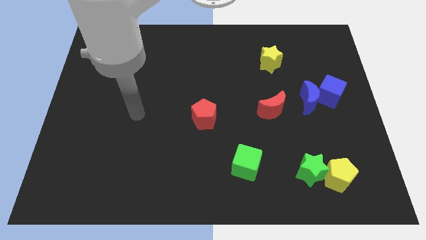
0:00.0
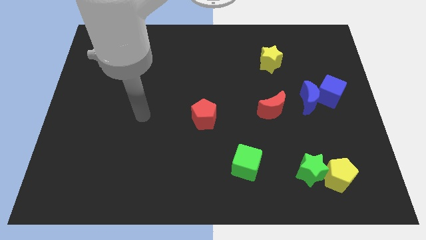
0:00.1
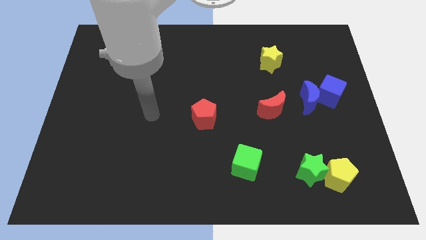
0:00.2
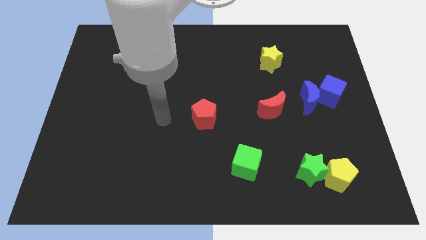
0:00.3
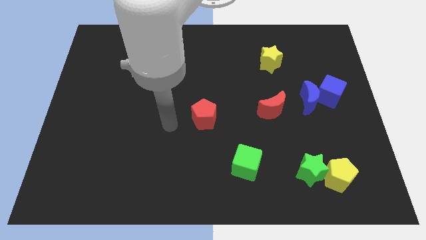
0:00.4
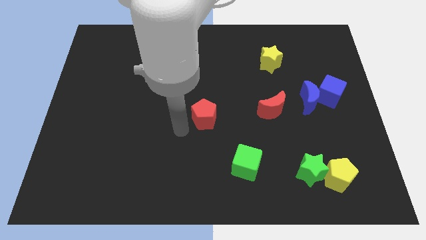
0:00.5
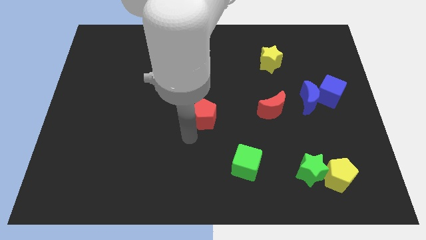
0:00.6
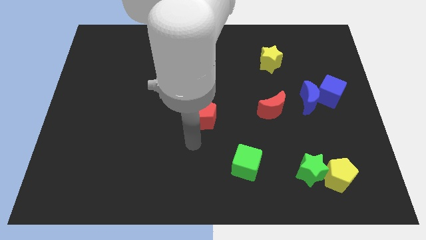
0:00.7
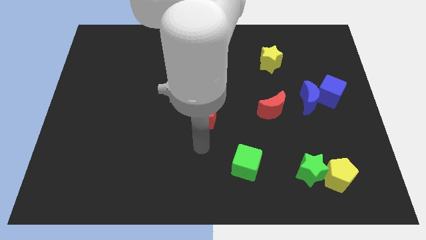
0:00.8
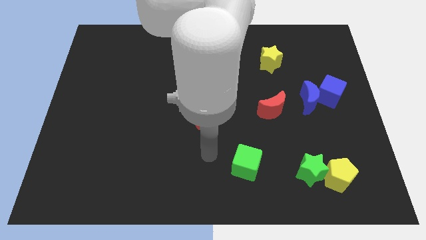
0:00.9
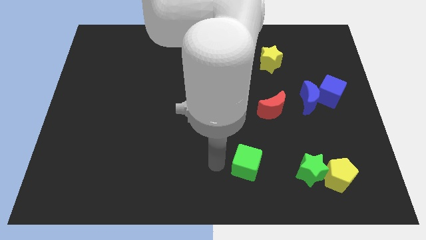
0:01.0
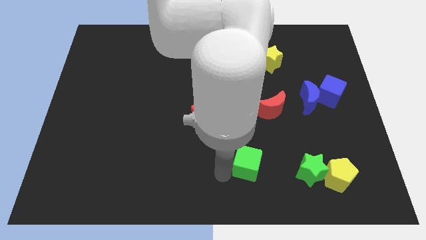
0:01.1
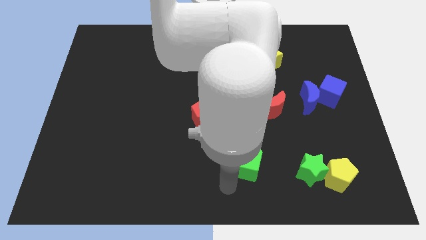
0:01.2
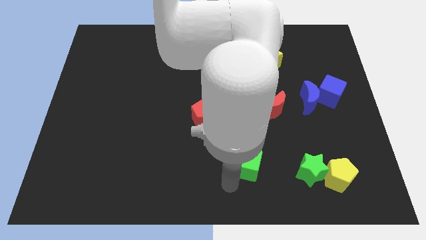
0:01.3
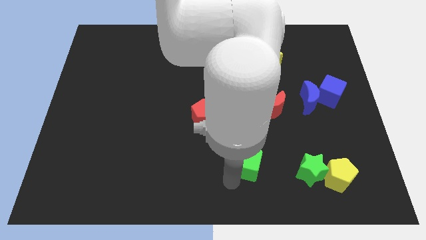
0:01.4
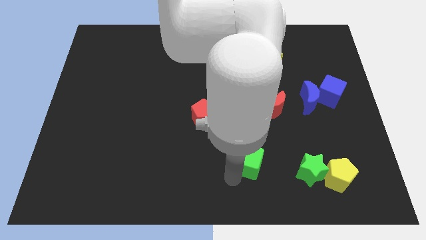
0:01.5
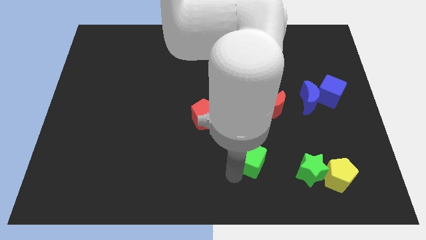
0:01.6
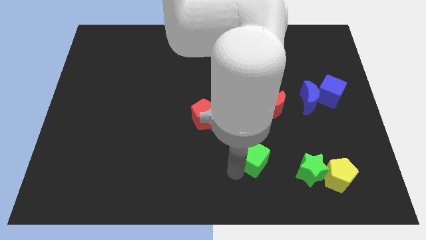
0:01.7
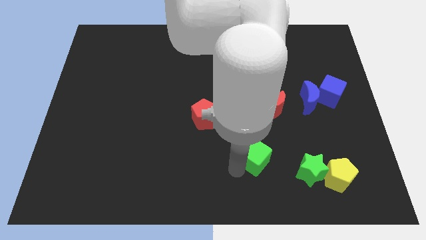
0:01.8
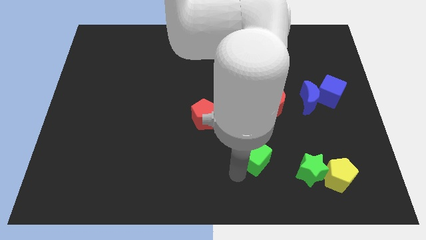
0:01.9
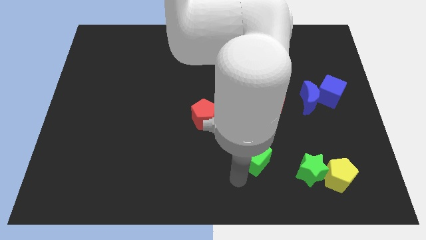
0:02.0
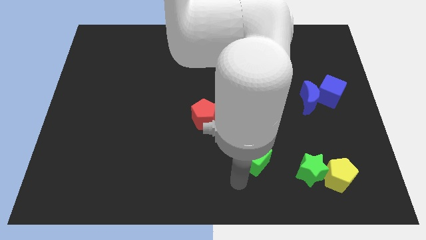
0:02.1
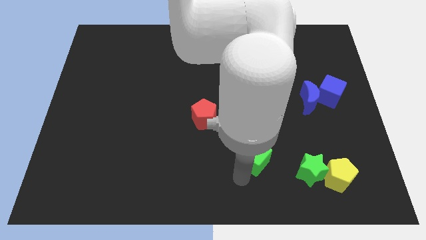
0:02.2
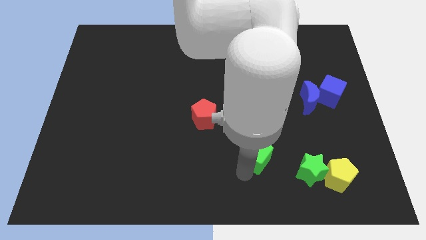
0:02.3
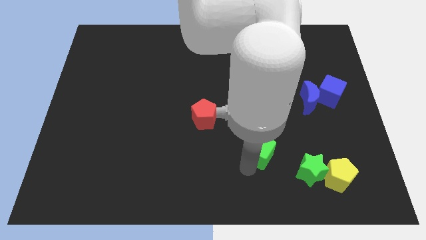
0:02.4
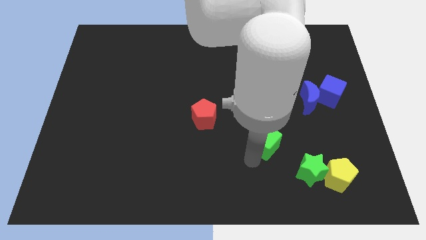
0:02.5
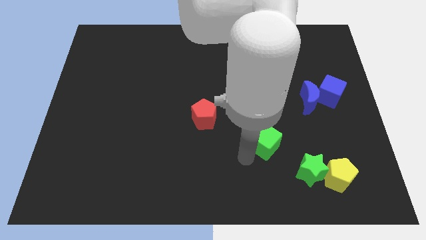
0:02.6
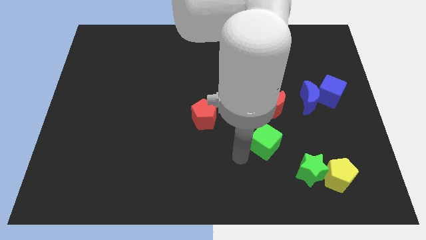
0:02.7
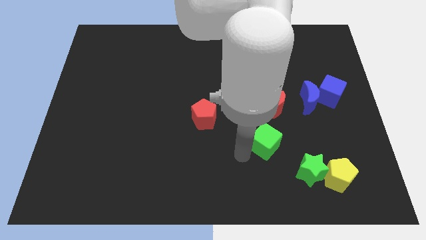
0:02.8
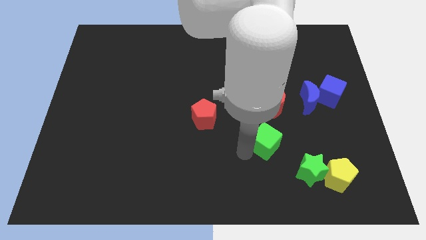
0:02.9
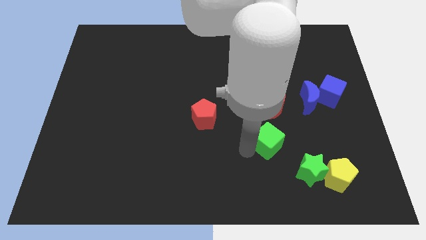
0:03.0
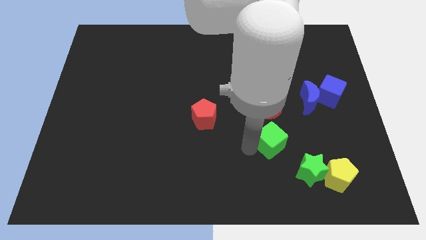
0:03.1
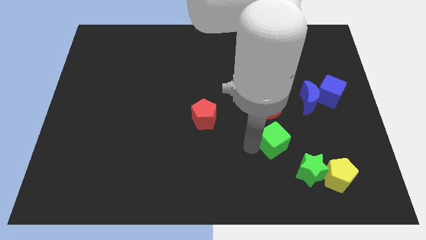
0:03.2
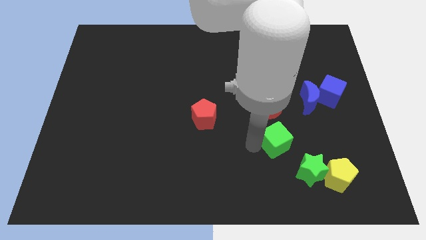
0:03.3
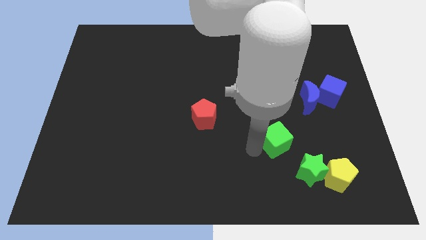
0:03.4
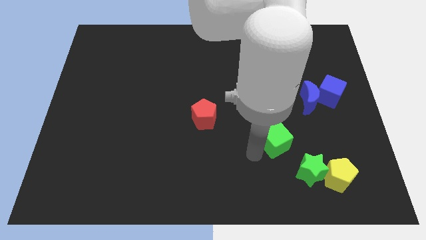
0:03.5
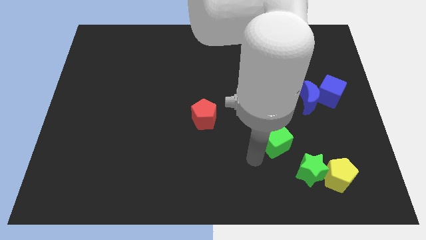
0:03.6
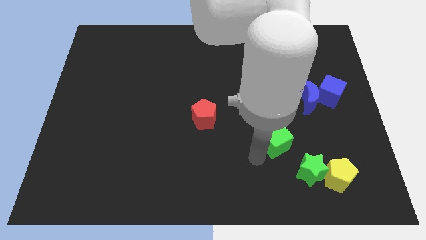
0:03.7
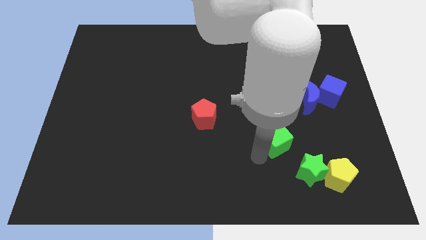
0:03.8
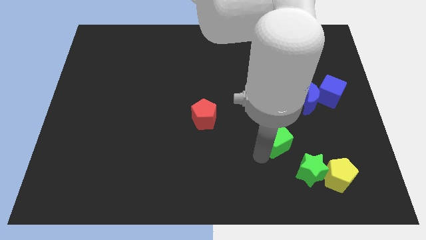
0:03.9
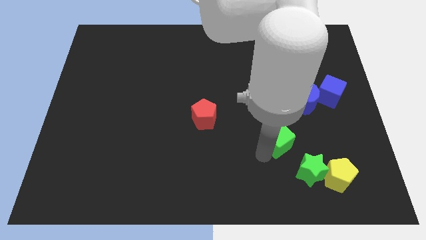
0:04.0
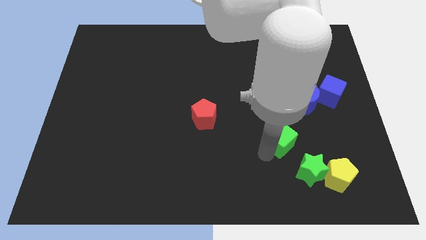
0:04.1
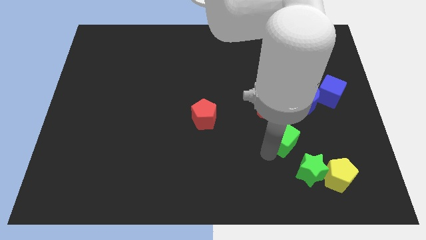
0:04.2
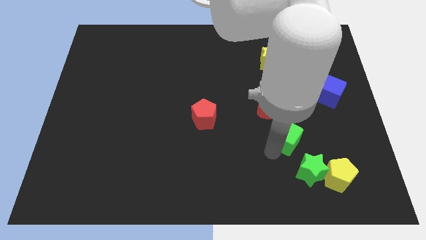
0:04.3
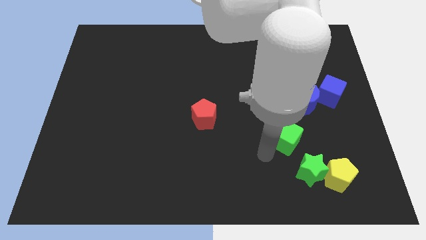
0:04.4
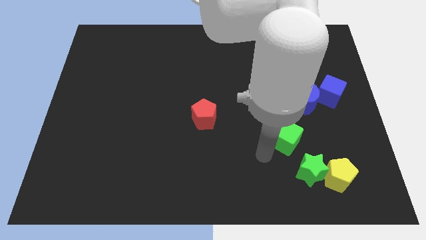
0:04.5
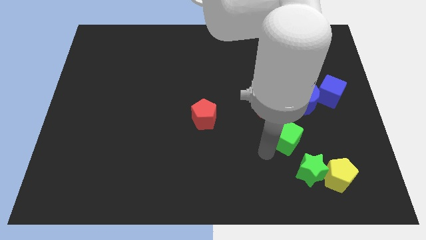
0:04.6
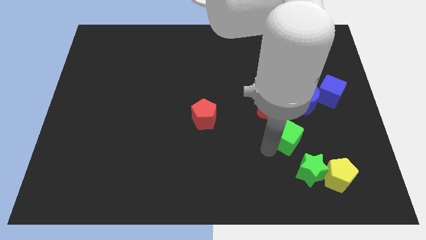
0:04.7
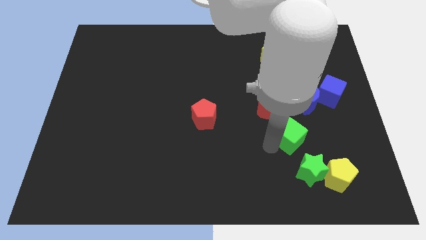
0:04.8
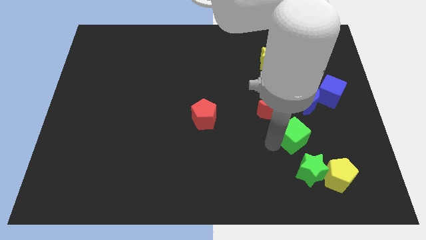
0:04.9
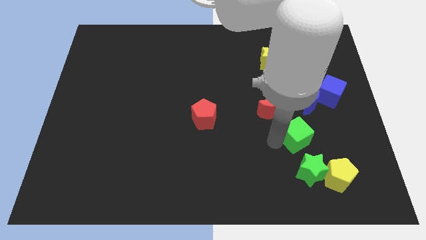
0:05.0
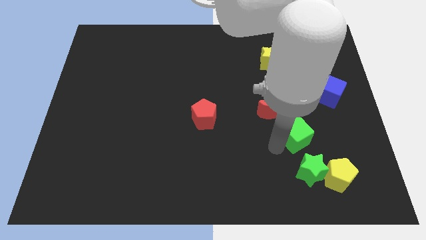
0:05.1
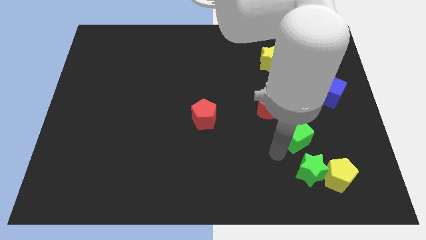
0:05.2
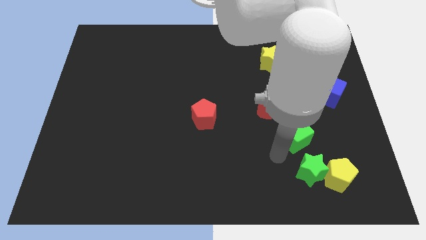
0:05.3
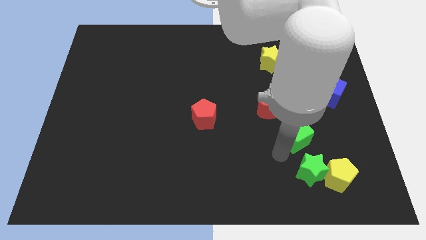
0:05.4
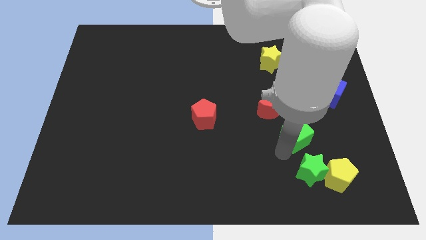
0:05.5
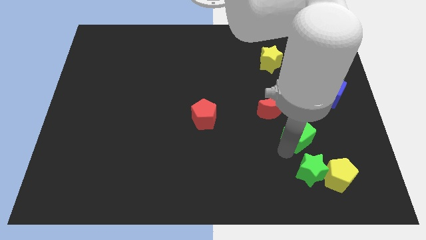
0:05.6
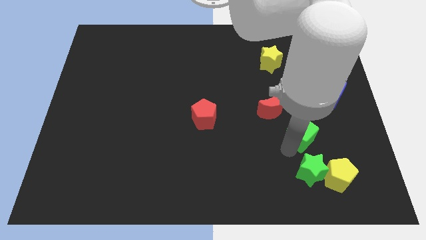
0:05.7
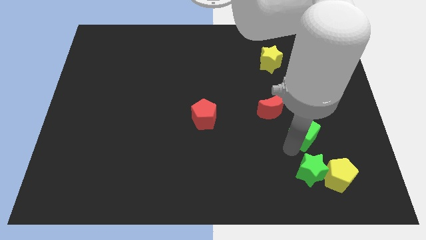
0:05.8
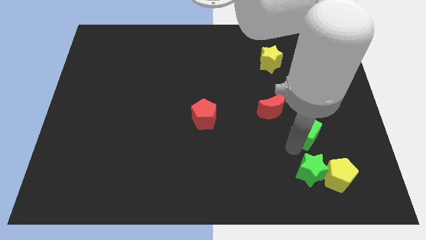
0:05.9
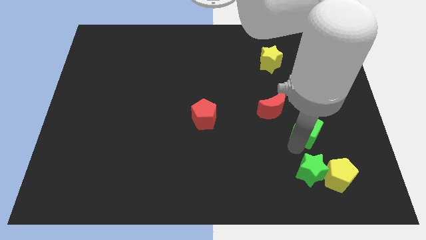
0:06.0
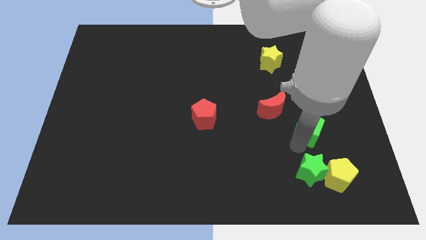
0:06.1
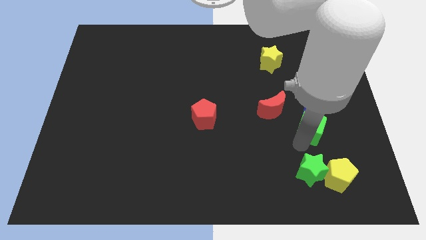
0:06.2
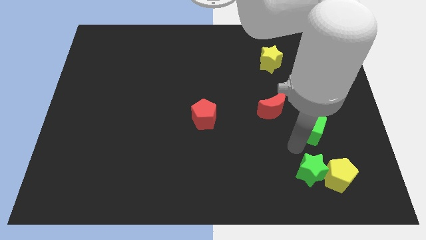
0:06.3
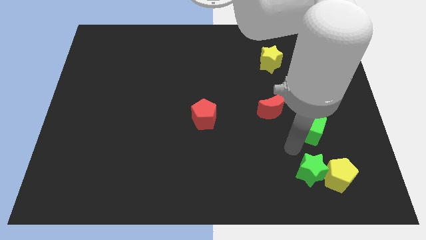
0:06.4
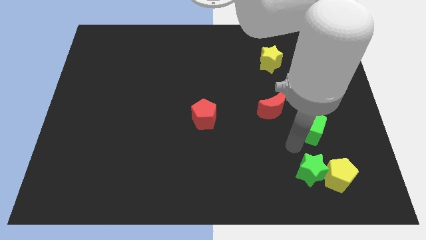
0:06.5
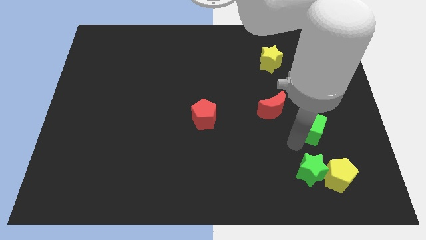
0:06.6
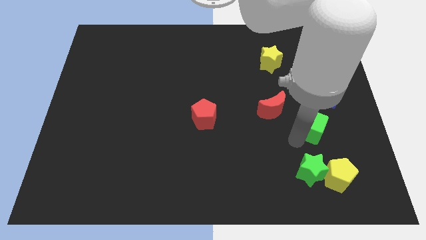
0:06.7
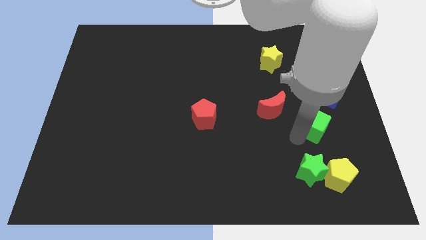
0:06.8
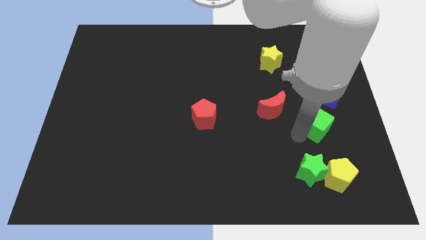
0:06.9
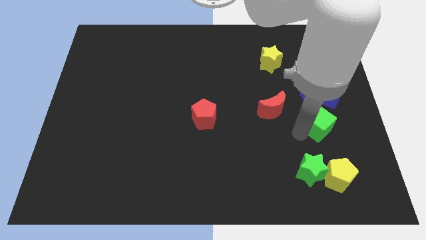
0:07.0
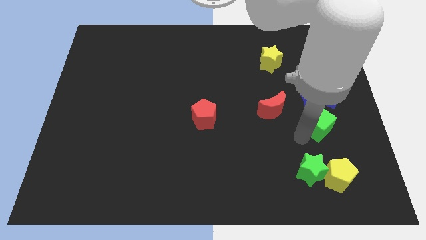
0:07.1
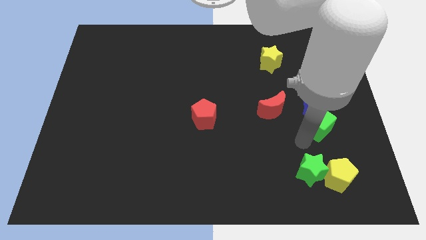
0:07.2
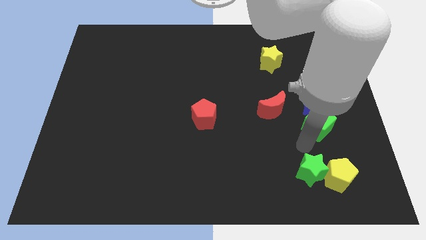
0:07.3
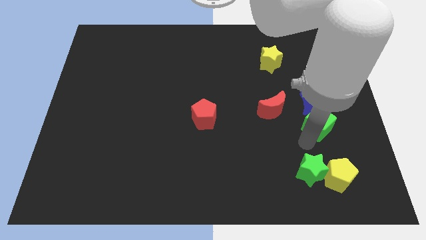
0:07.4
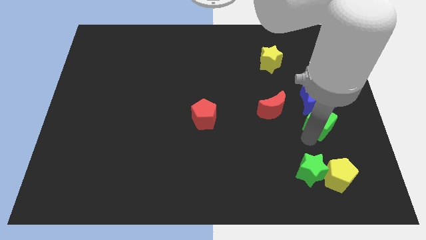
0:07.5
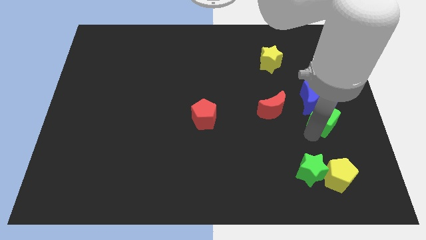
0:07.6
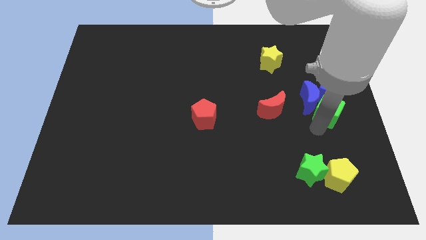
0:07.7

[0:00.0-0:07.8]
push the green cube towards the blue cube
